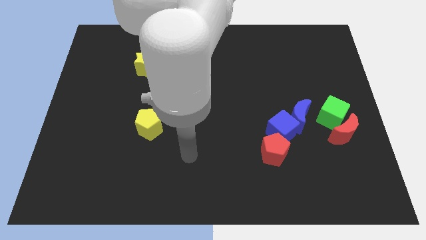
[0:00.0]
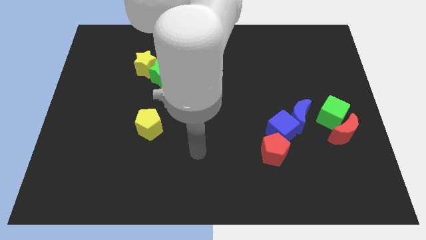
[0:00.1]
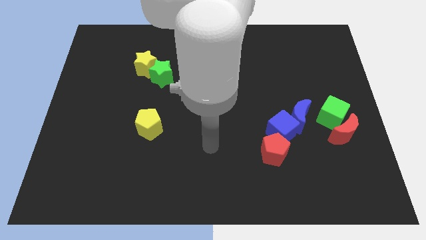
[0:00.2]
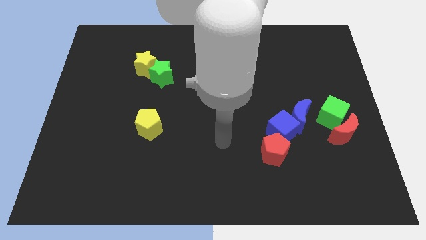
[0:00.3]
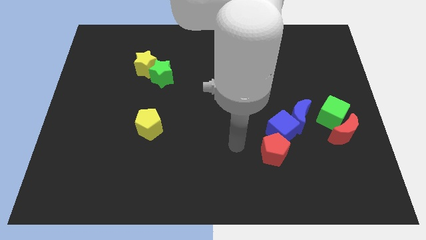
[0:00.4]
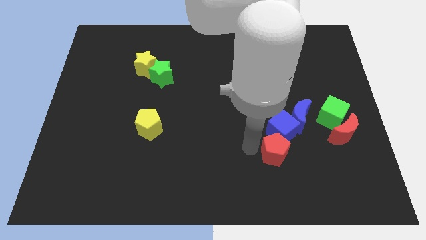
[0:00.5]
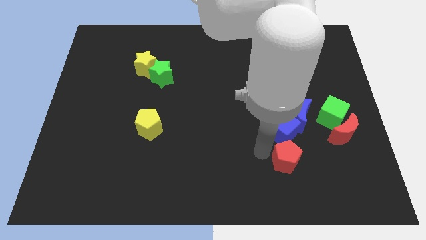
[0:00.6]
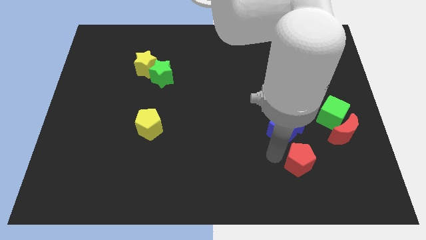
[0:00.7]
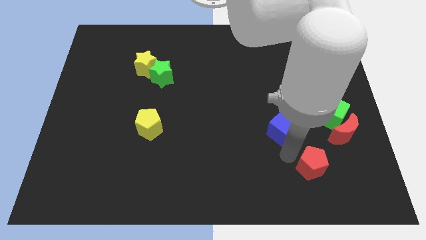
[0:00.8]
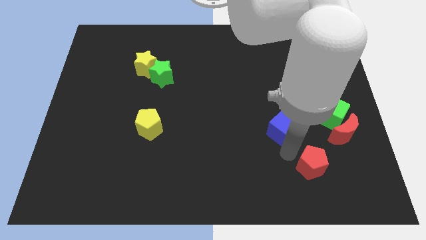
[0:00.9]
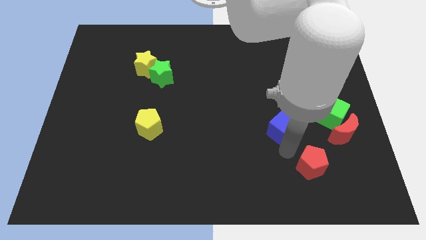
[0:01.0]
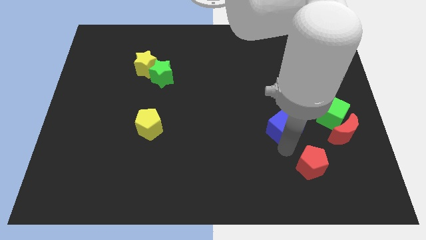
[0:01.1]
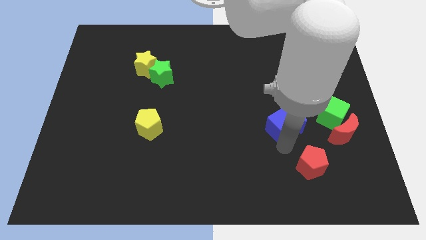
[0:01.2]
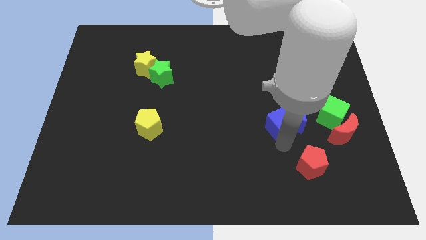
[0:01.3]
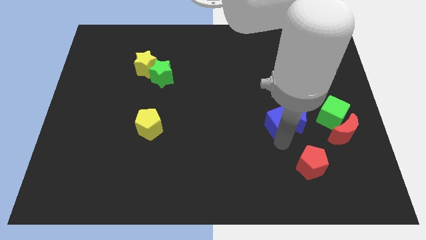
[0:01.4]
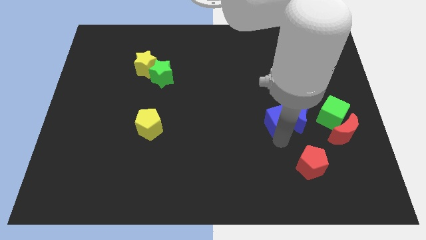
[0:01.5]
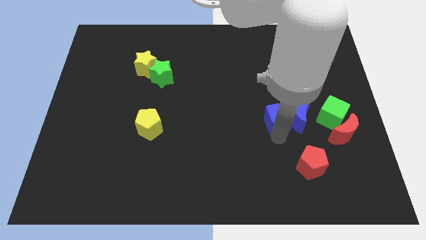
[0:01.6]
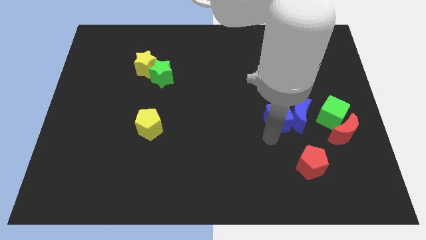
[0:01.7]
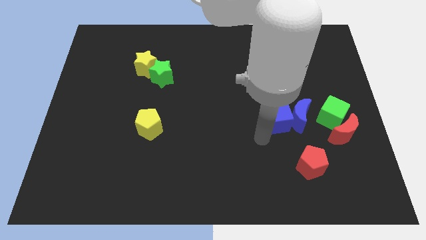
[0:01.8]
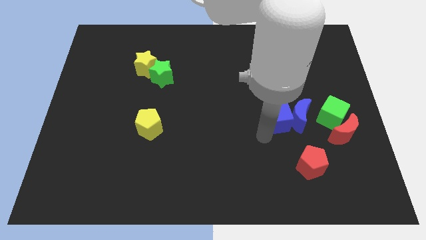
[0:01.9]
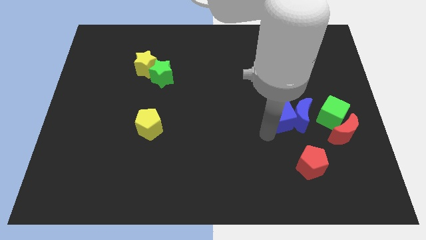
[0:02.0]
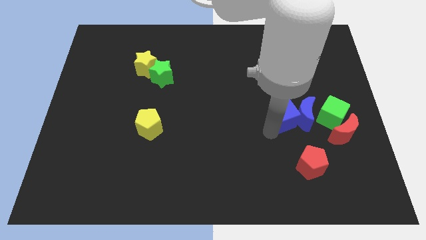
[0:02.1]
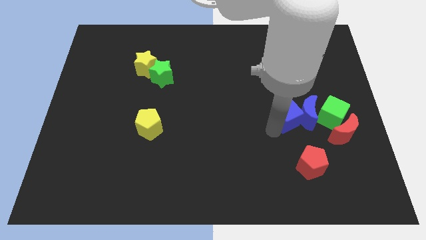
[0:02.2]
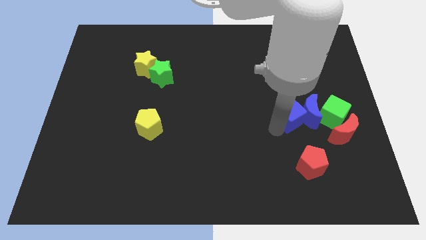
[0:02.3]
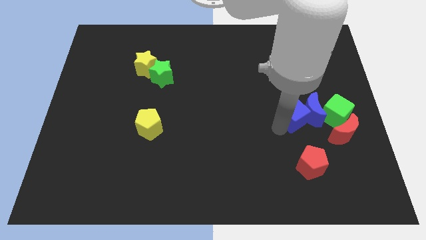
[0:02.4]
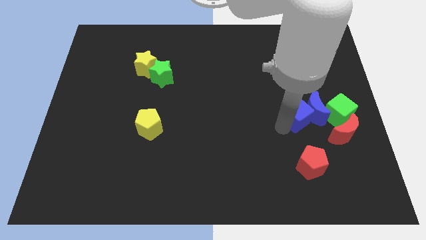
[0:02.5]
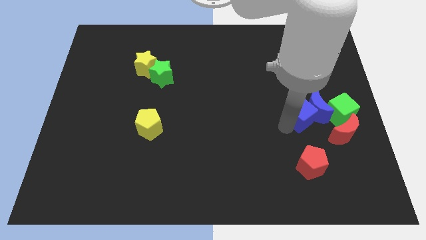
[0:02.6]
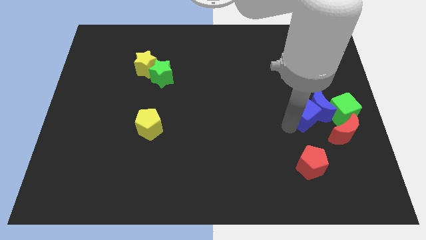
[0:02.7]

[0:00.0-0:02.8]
push the blue cube a bit upwards and right

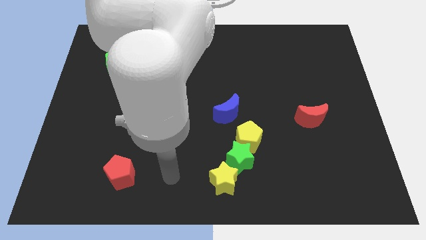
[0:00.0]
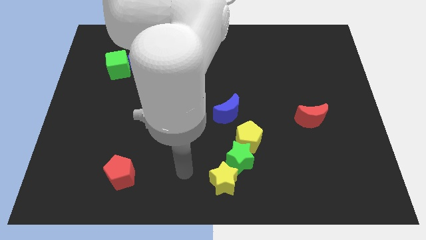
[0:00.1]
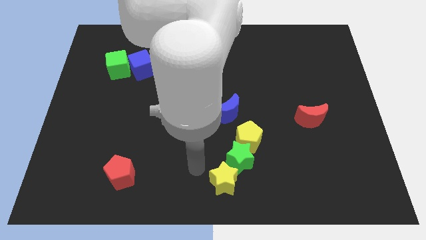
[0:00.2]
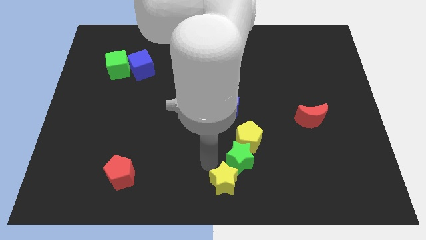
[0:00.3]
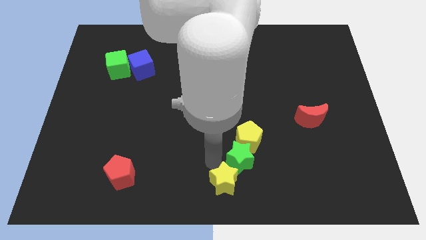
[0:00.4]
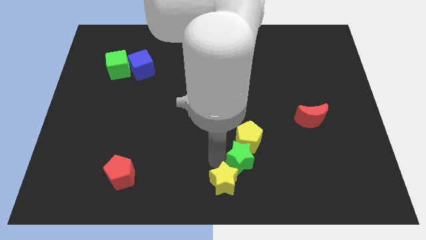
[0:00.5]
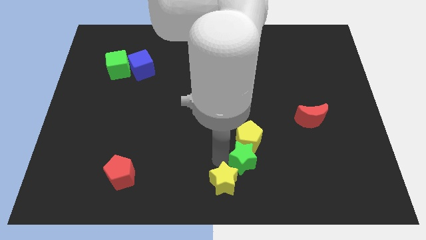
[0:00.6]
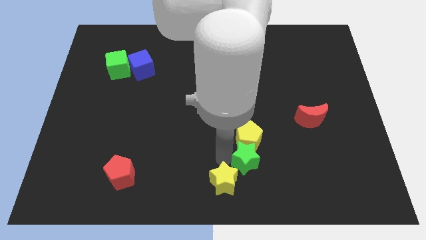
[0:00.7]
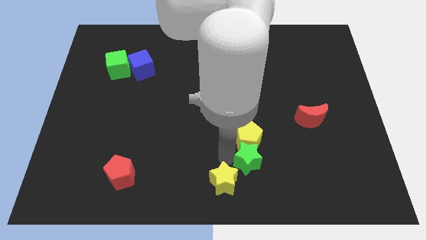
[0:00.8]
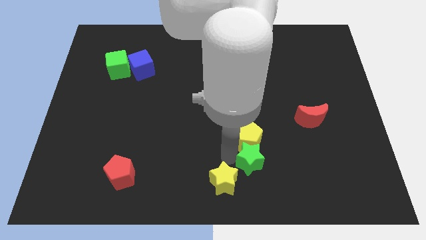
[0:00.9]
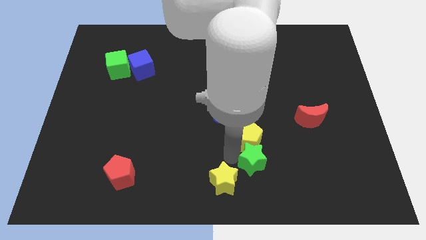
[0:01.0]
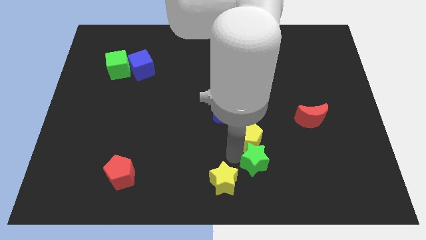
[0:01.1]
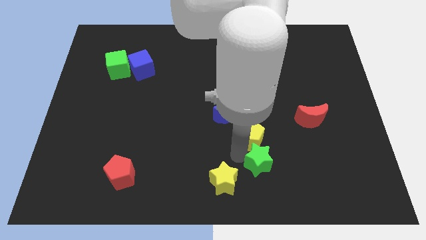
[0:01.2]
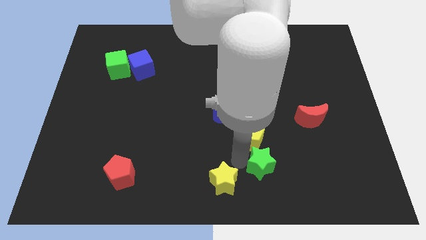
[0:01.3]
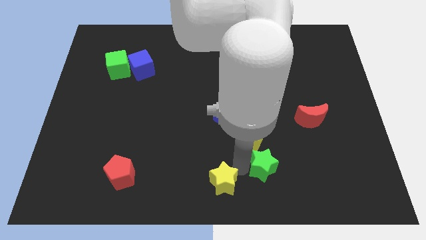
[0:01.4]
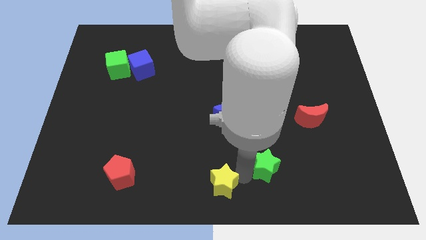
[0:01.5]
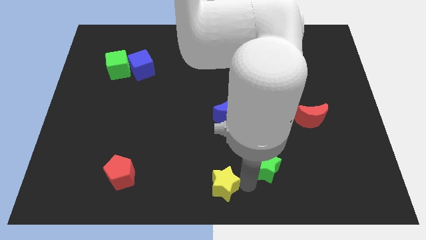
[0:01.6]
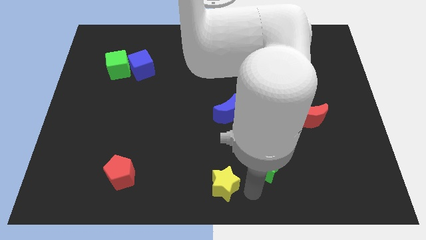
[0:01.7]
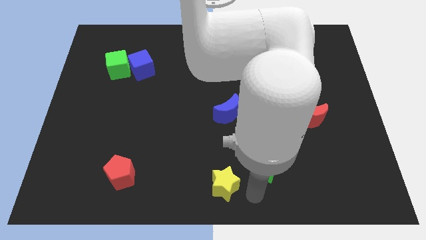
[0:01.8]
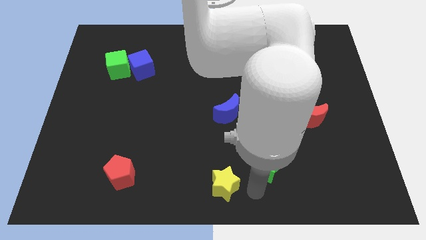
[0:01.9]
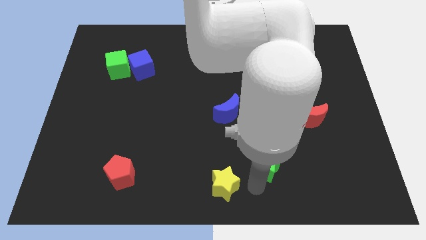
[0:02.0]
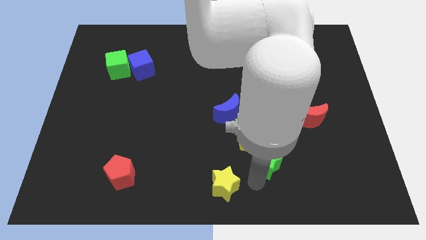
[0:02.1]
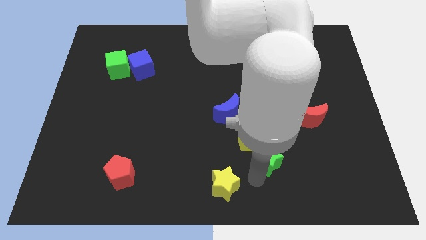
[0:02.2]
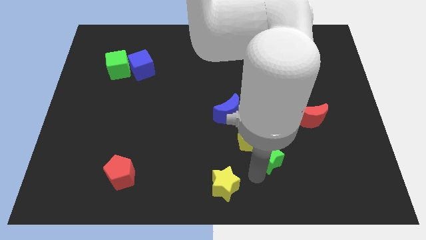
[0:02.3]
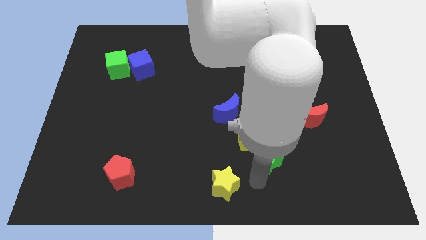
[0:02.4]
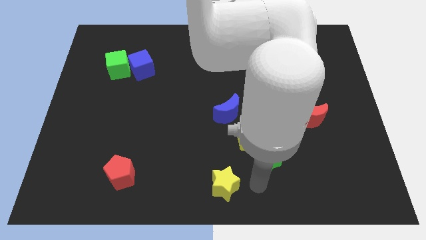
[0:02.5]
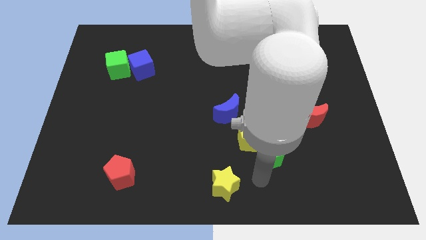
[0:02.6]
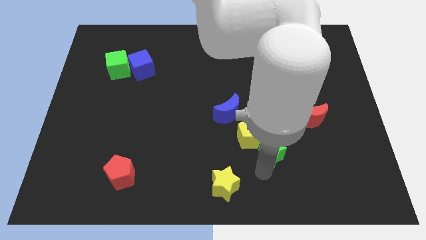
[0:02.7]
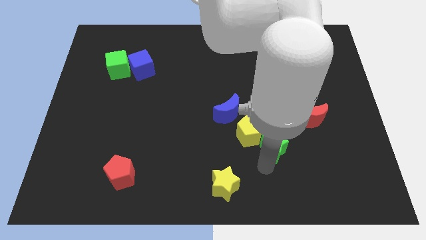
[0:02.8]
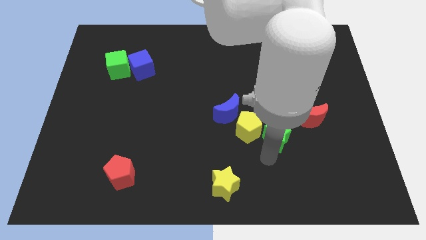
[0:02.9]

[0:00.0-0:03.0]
move the green star up and to the right diagonally somewhat

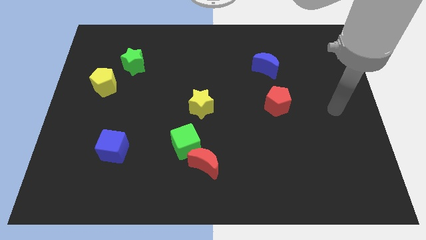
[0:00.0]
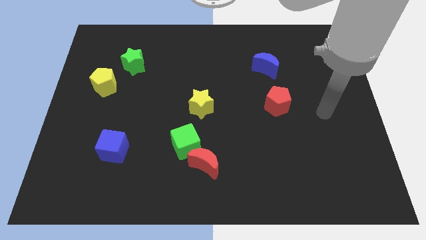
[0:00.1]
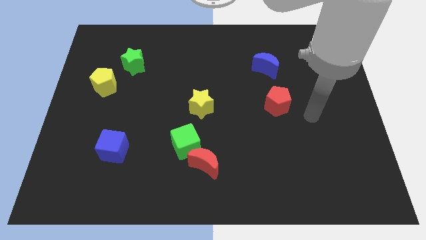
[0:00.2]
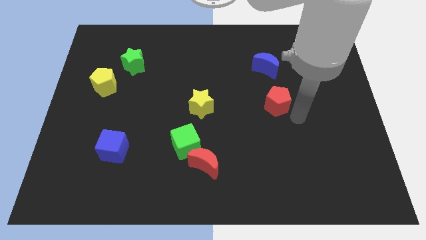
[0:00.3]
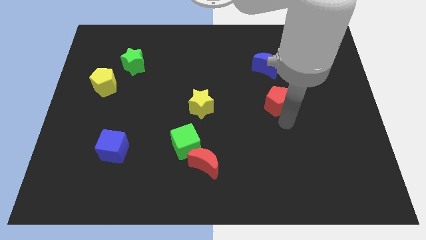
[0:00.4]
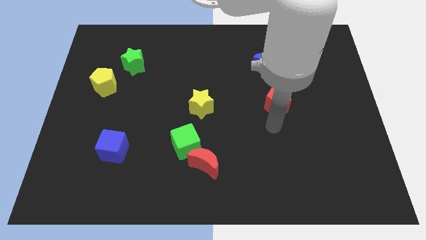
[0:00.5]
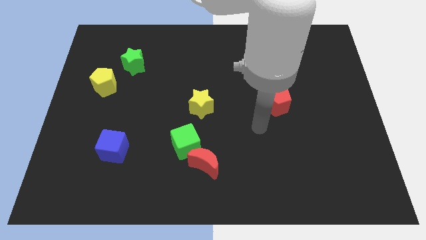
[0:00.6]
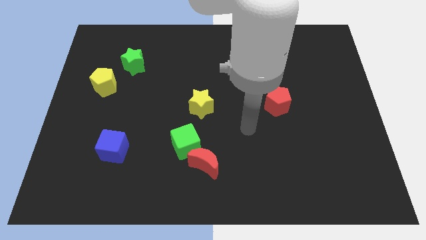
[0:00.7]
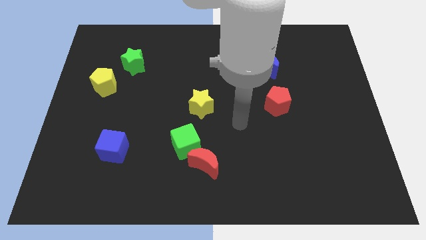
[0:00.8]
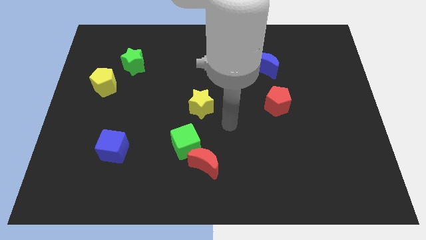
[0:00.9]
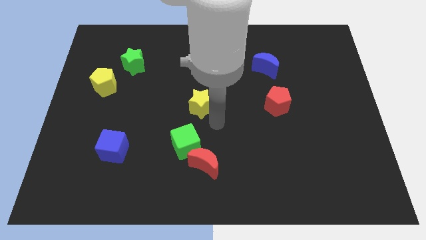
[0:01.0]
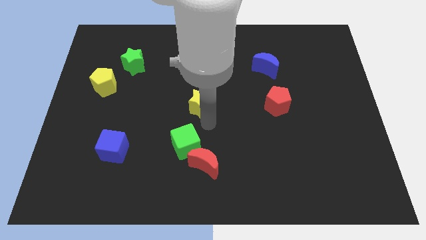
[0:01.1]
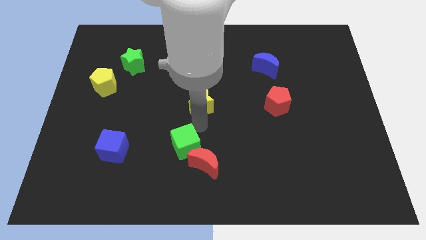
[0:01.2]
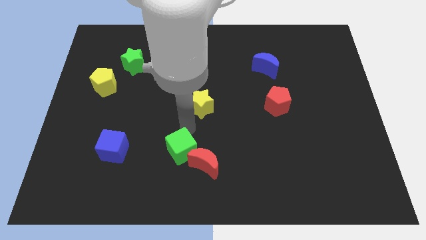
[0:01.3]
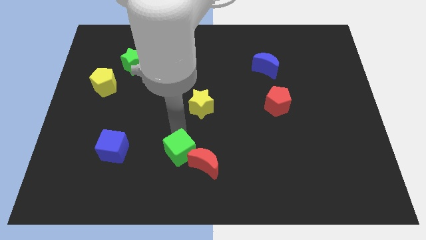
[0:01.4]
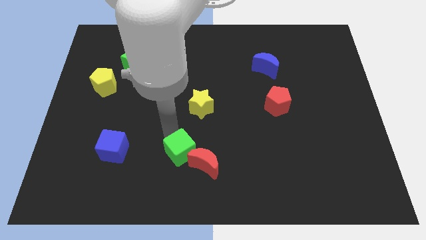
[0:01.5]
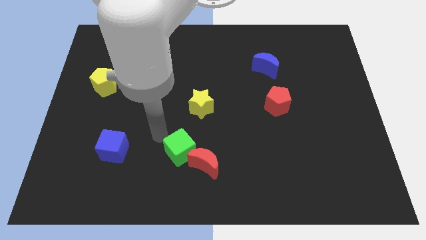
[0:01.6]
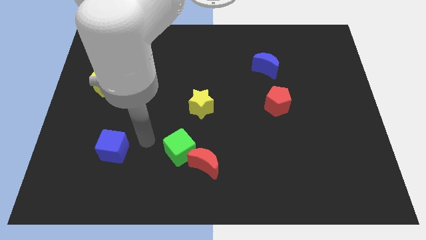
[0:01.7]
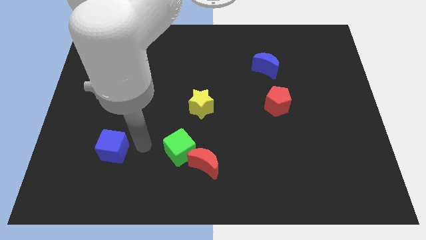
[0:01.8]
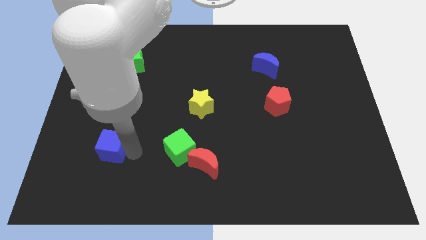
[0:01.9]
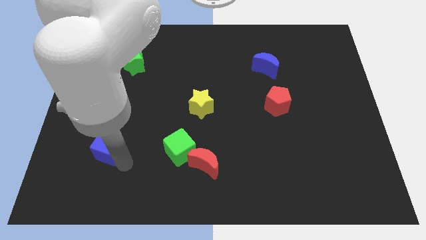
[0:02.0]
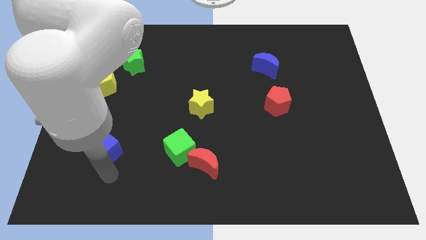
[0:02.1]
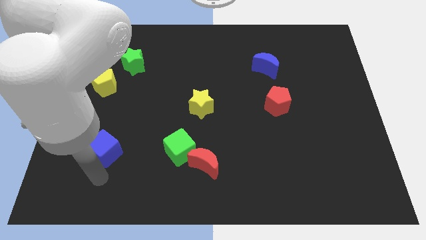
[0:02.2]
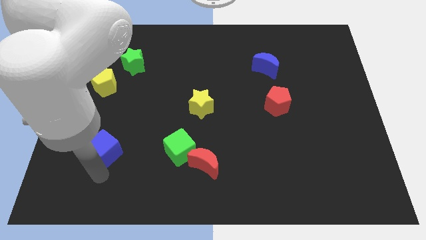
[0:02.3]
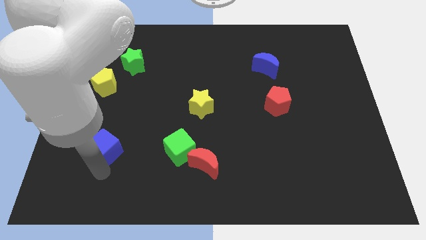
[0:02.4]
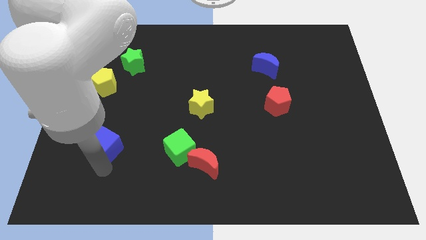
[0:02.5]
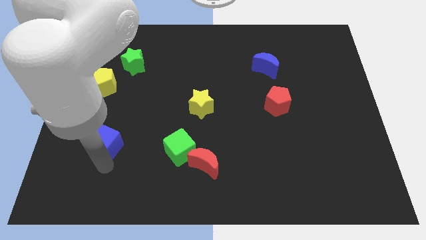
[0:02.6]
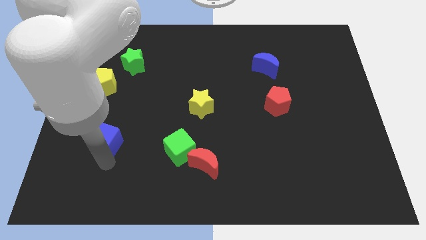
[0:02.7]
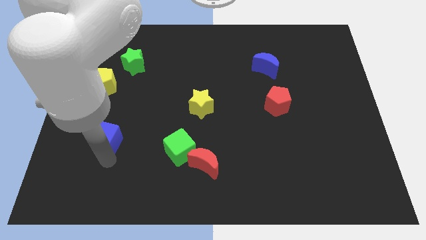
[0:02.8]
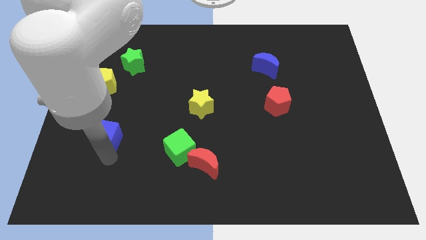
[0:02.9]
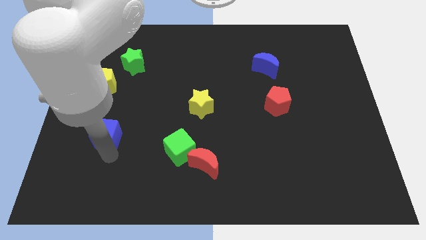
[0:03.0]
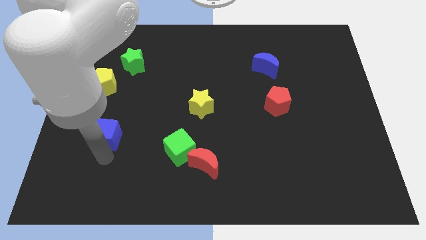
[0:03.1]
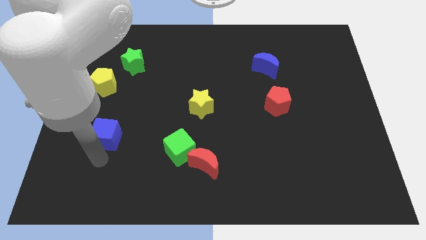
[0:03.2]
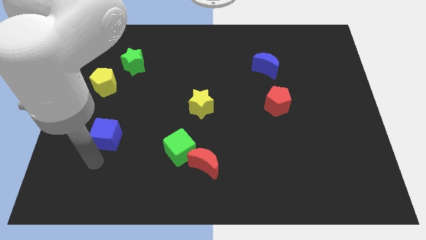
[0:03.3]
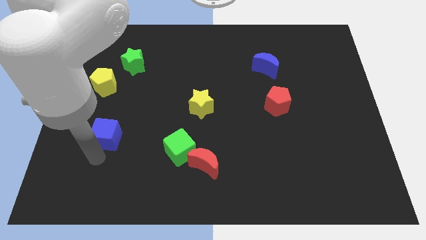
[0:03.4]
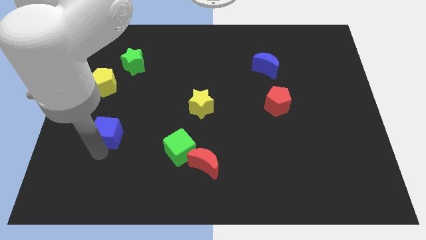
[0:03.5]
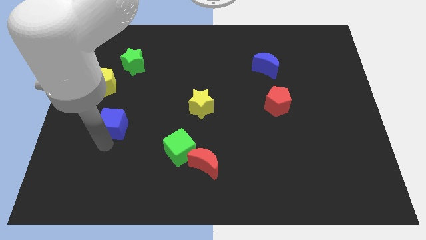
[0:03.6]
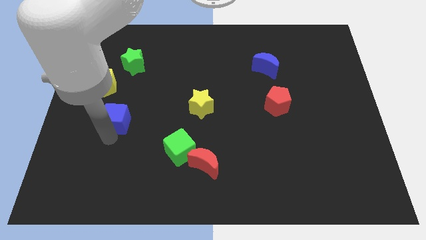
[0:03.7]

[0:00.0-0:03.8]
slightly move the blue cube upwards
